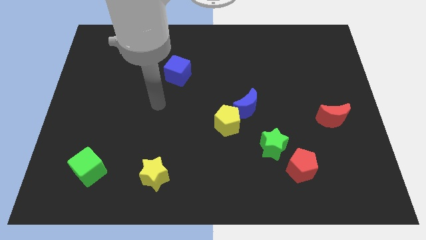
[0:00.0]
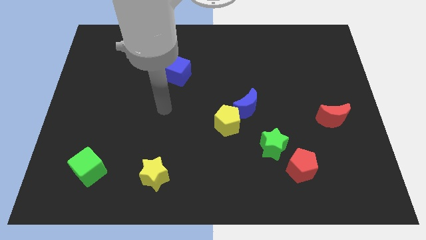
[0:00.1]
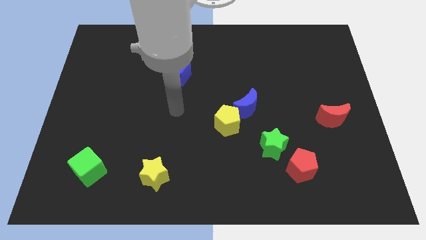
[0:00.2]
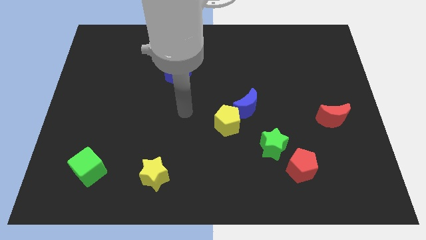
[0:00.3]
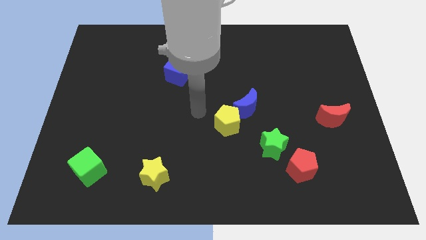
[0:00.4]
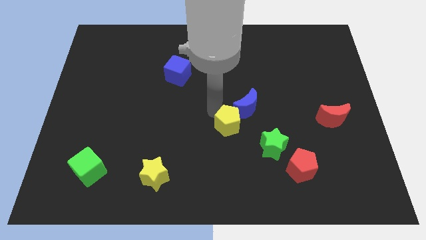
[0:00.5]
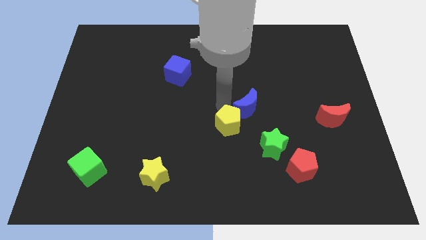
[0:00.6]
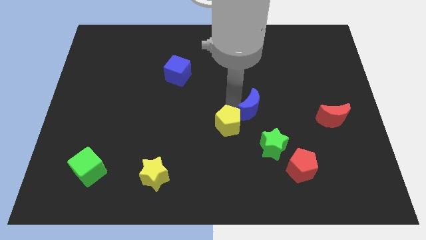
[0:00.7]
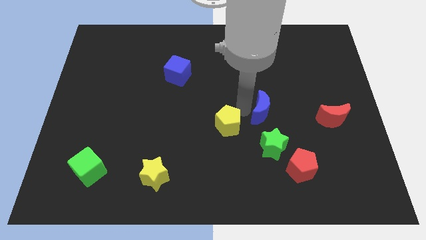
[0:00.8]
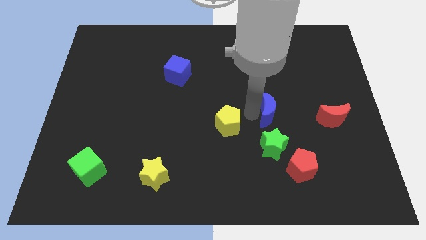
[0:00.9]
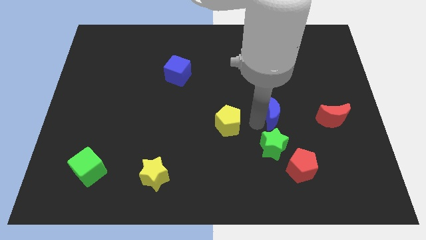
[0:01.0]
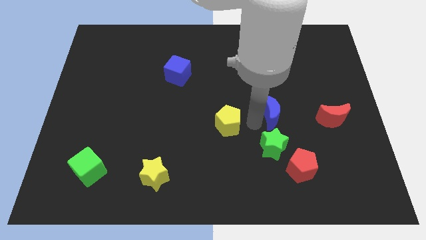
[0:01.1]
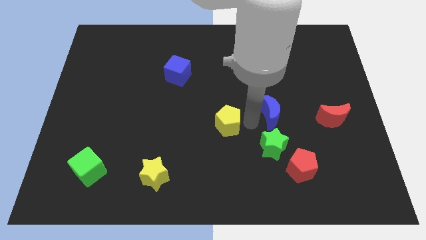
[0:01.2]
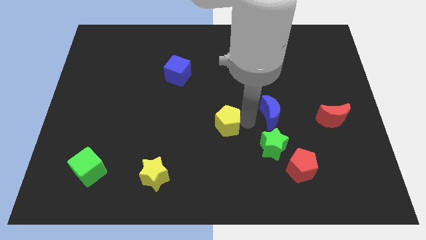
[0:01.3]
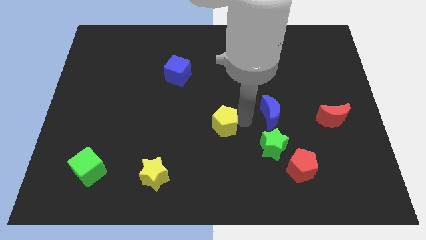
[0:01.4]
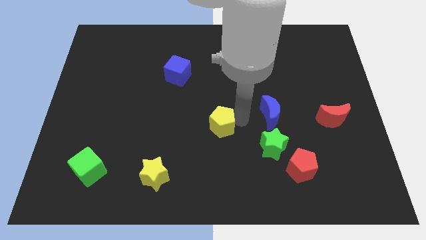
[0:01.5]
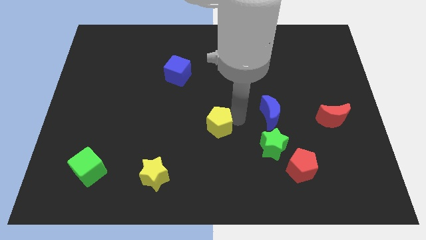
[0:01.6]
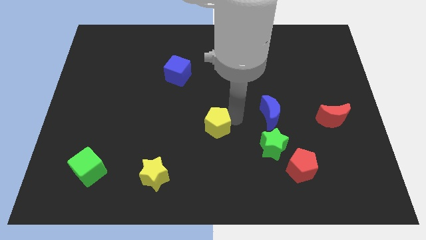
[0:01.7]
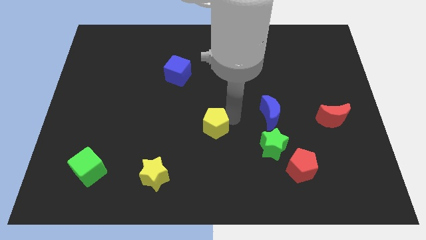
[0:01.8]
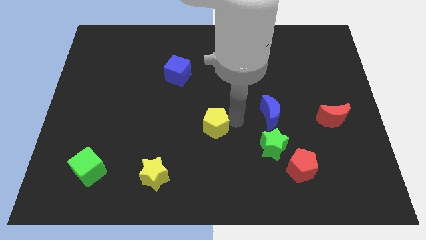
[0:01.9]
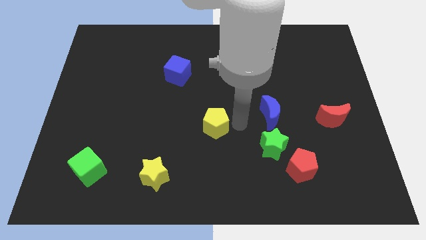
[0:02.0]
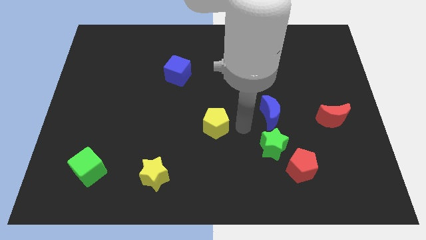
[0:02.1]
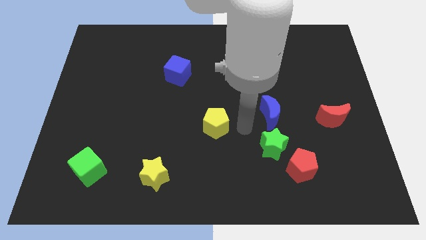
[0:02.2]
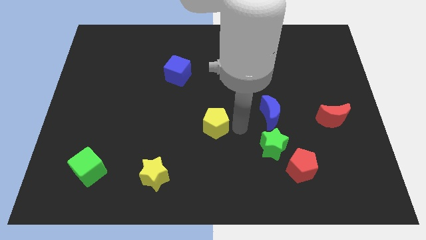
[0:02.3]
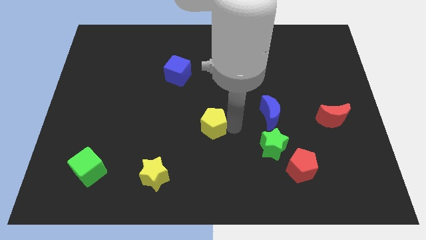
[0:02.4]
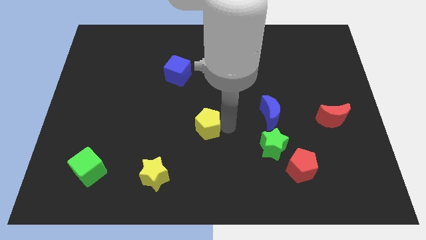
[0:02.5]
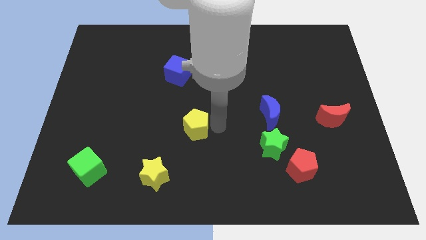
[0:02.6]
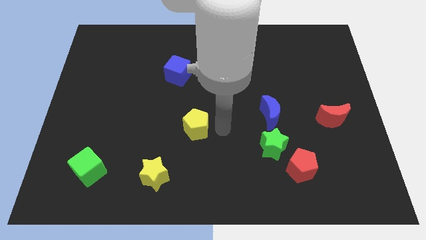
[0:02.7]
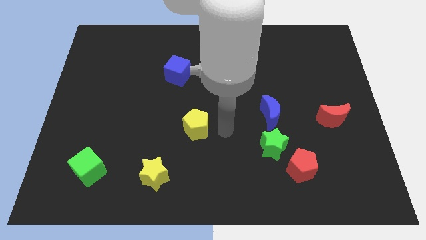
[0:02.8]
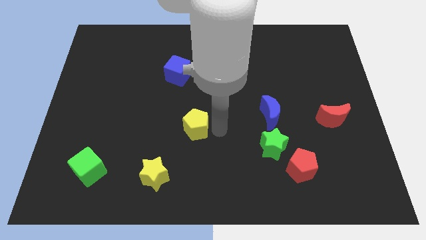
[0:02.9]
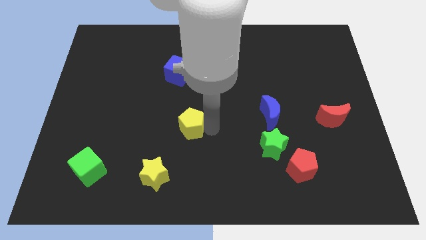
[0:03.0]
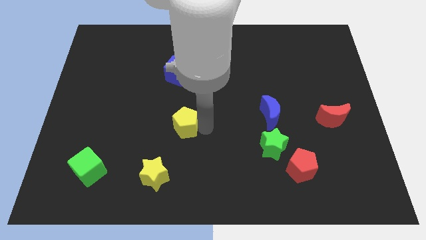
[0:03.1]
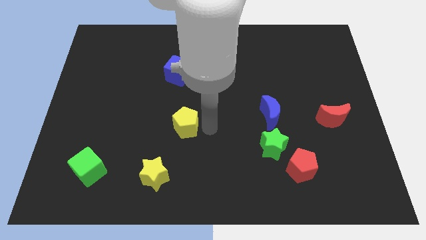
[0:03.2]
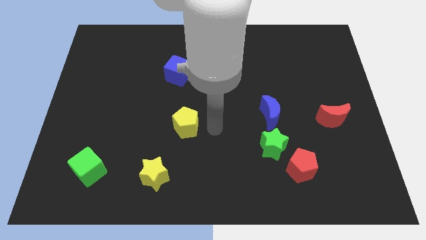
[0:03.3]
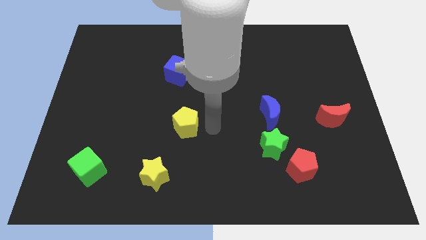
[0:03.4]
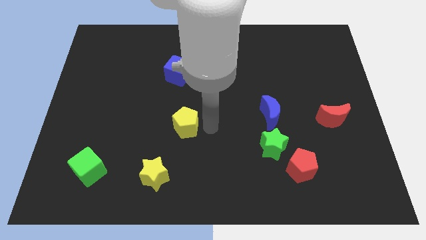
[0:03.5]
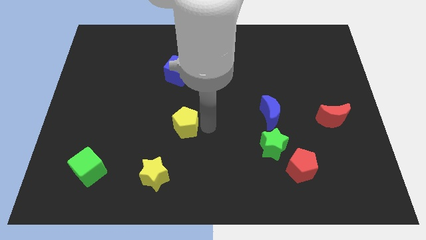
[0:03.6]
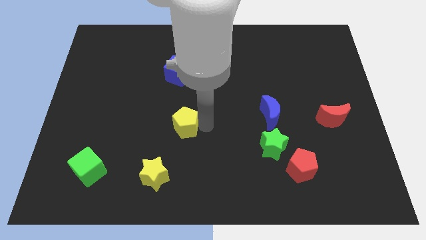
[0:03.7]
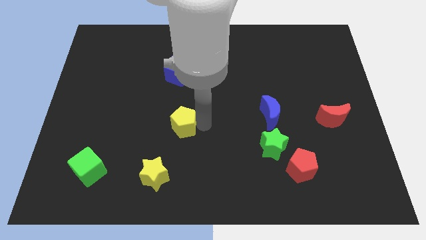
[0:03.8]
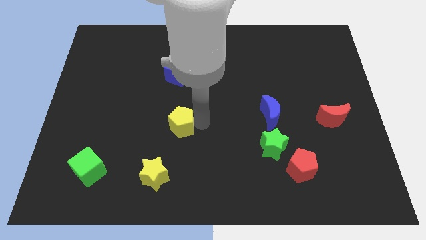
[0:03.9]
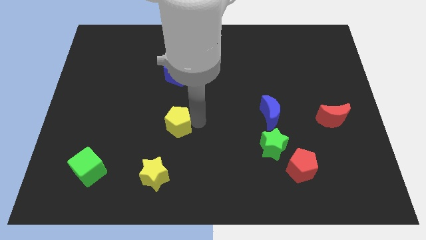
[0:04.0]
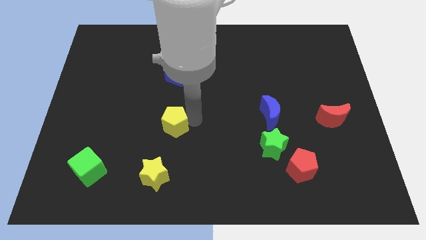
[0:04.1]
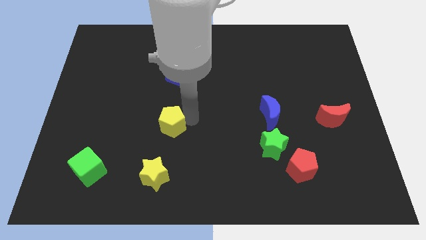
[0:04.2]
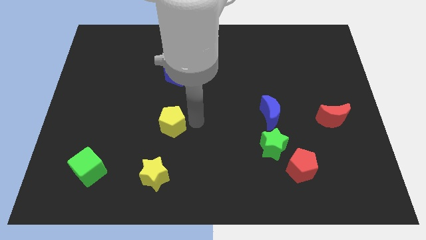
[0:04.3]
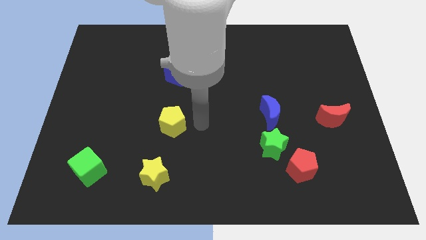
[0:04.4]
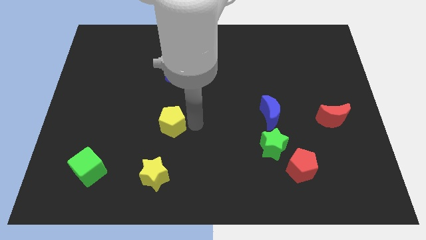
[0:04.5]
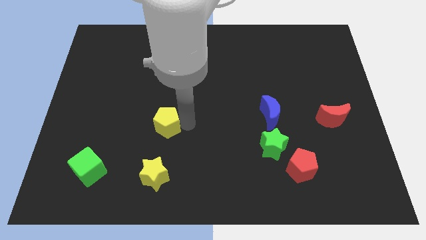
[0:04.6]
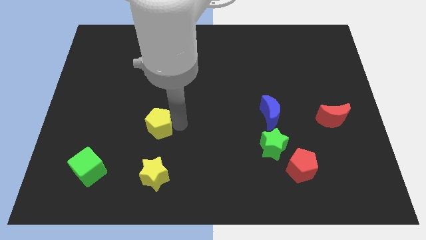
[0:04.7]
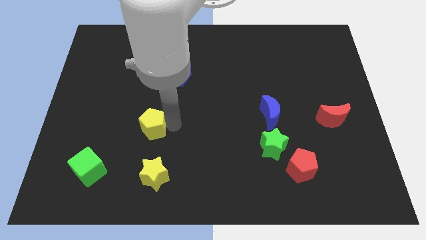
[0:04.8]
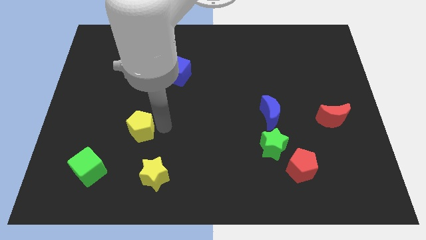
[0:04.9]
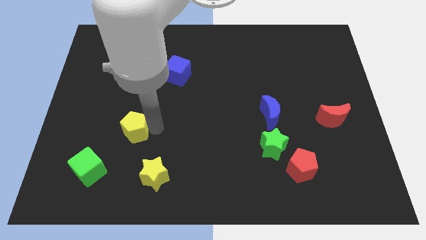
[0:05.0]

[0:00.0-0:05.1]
move the yellow pentagon to the left

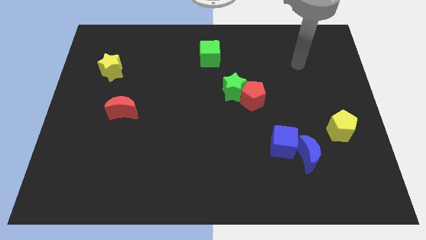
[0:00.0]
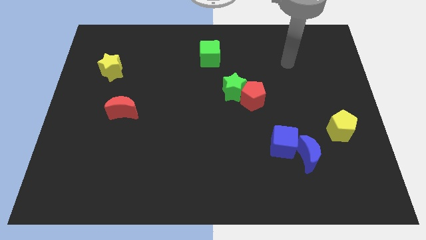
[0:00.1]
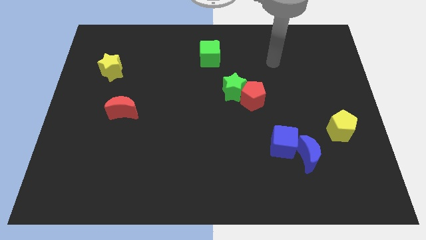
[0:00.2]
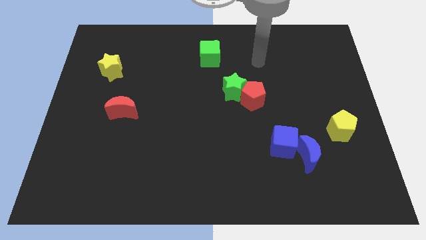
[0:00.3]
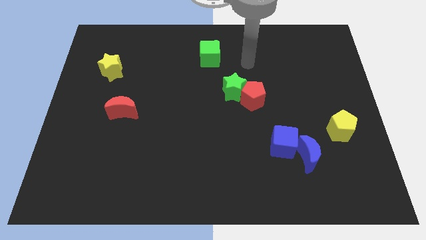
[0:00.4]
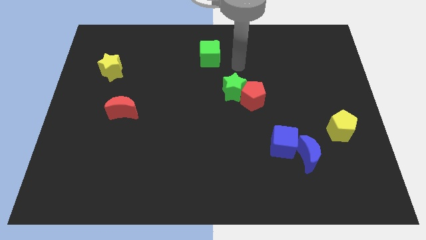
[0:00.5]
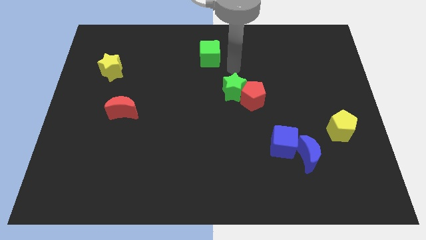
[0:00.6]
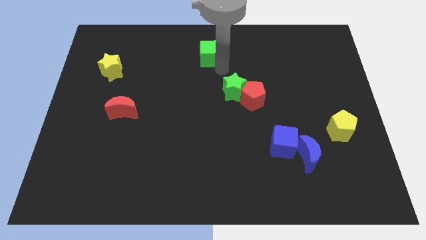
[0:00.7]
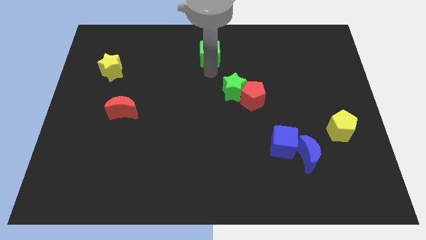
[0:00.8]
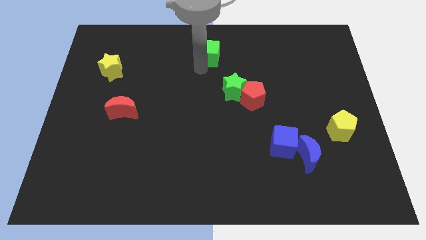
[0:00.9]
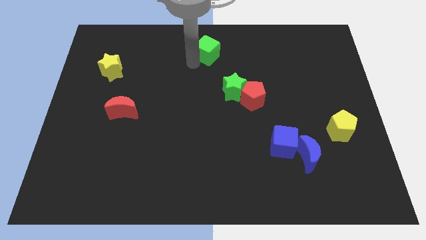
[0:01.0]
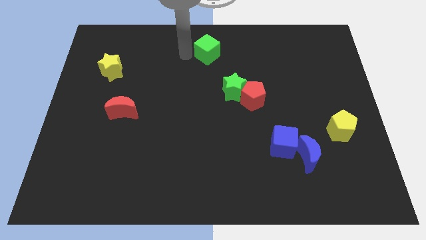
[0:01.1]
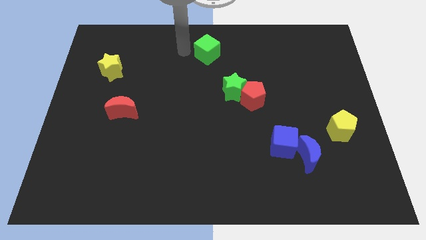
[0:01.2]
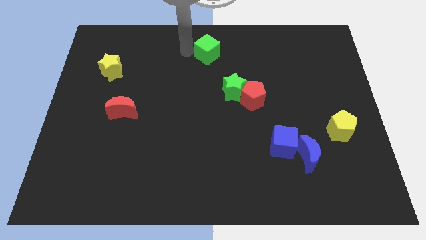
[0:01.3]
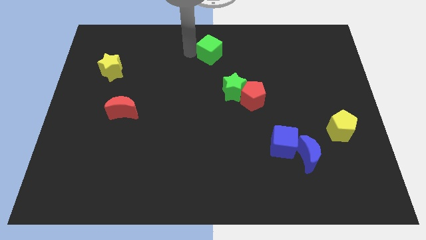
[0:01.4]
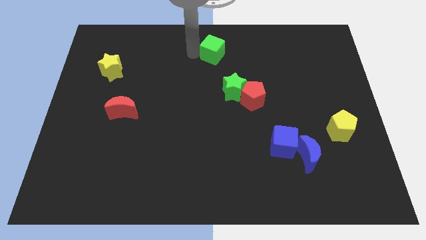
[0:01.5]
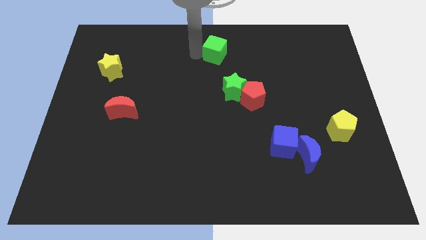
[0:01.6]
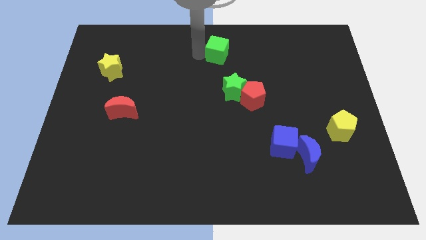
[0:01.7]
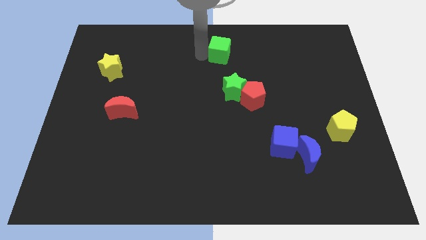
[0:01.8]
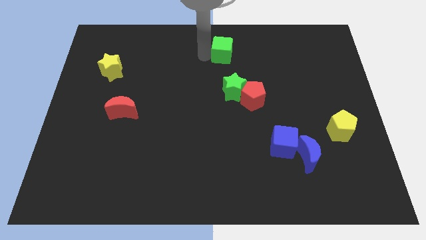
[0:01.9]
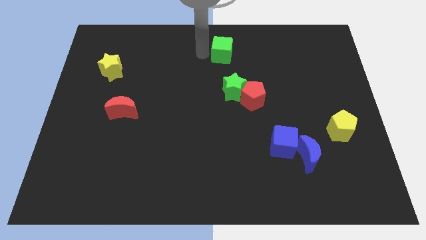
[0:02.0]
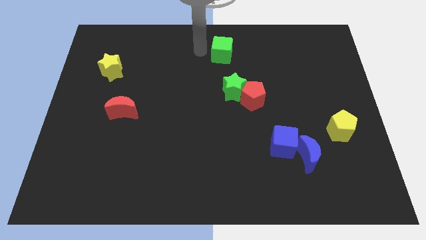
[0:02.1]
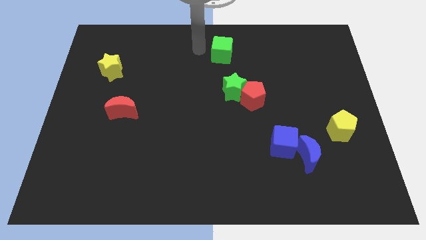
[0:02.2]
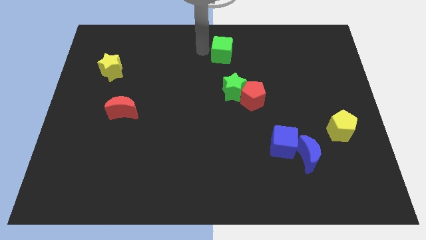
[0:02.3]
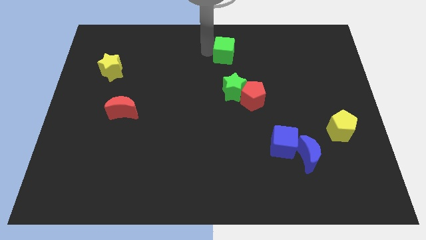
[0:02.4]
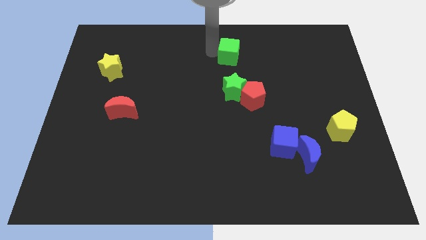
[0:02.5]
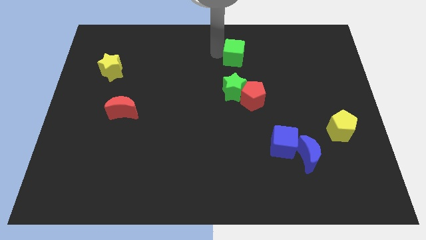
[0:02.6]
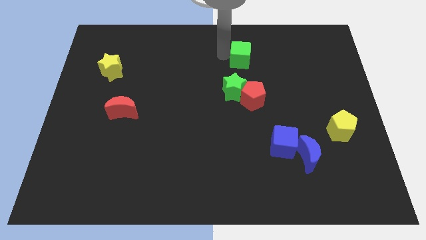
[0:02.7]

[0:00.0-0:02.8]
push the green cube right slightly
